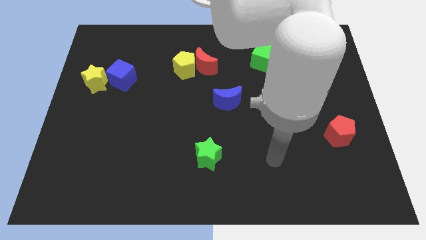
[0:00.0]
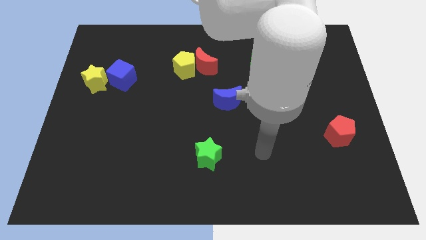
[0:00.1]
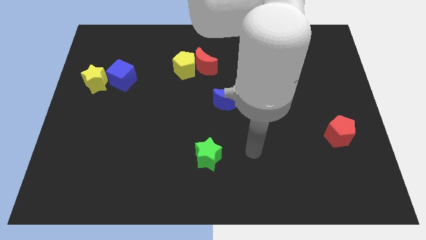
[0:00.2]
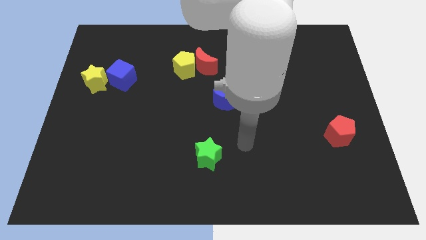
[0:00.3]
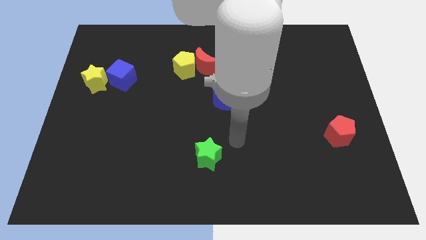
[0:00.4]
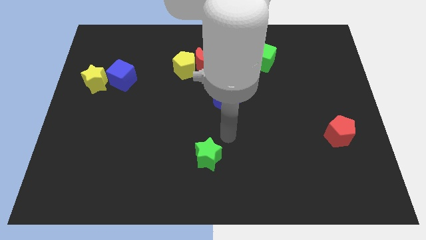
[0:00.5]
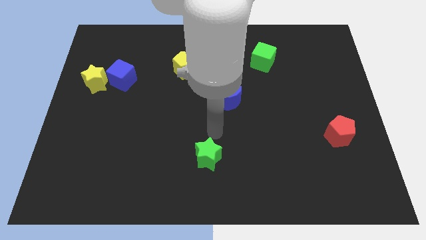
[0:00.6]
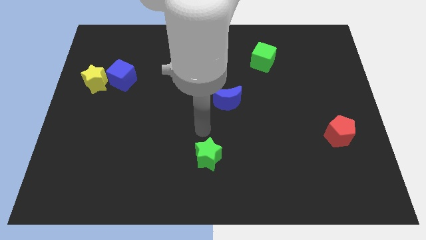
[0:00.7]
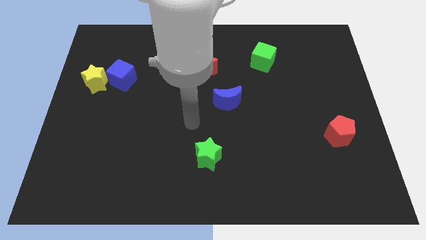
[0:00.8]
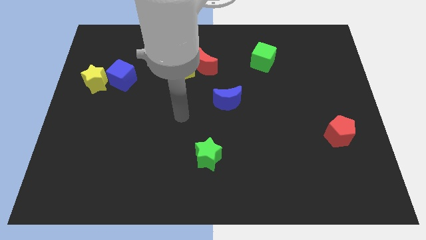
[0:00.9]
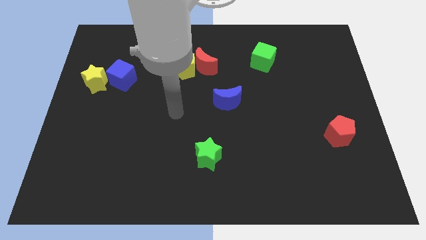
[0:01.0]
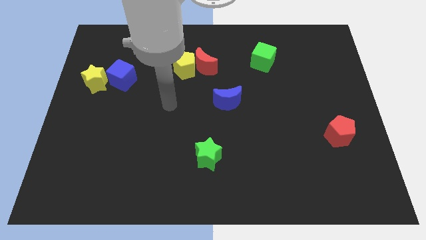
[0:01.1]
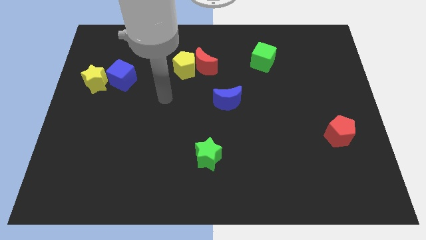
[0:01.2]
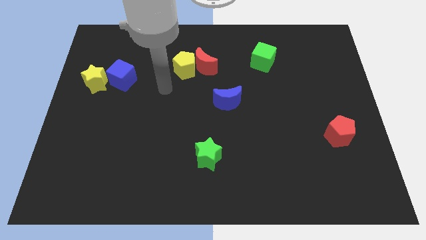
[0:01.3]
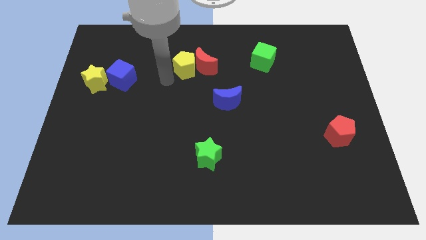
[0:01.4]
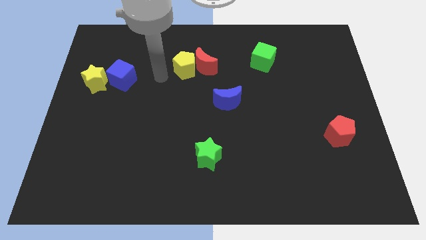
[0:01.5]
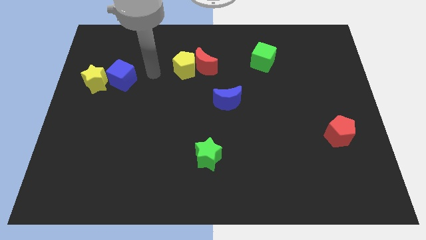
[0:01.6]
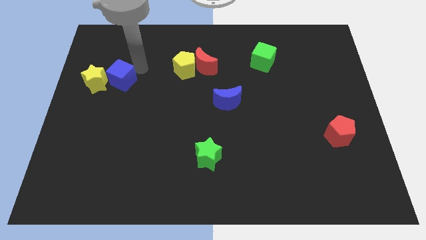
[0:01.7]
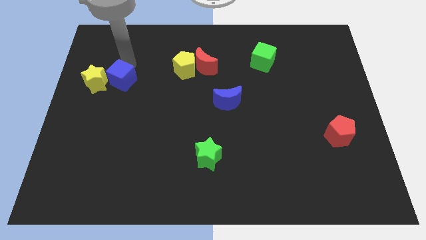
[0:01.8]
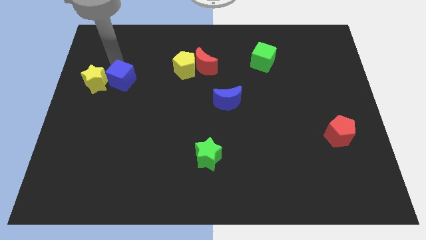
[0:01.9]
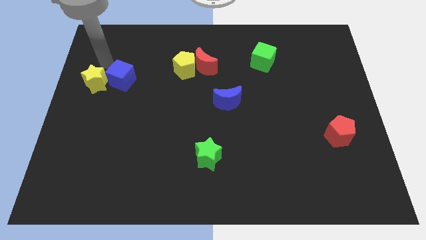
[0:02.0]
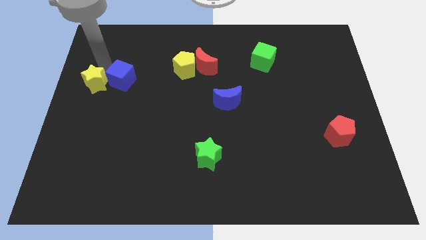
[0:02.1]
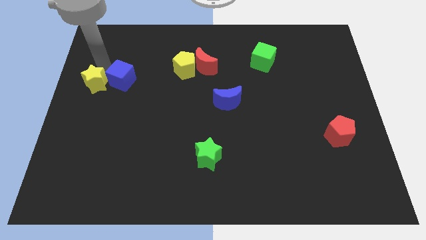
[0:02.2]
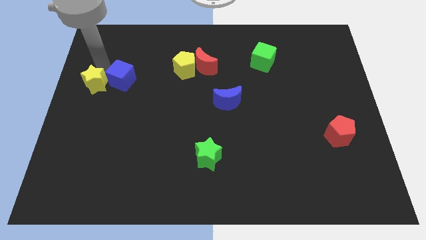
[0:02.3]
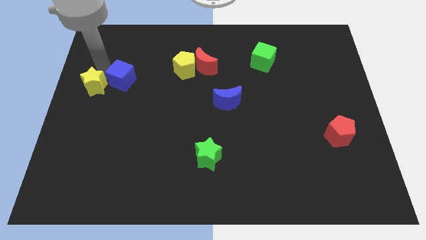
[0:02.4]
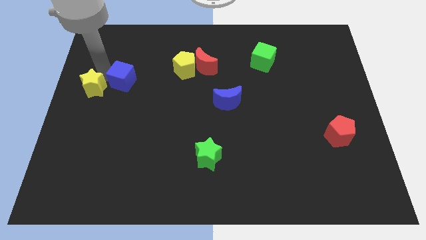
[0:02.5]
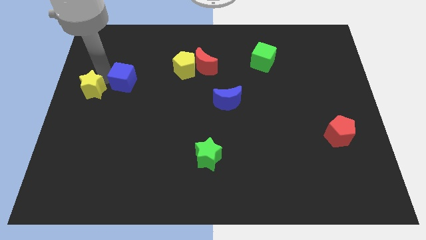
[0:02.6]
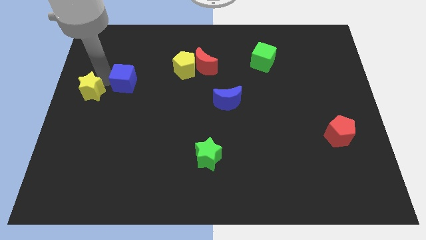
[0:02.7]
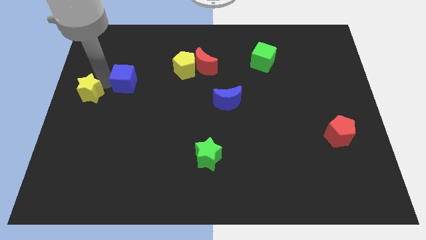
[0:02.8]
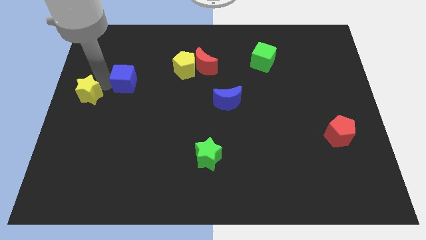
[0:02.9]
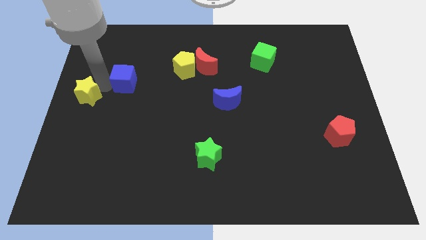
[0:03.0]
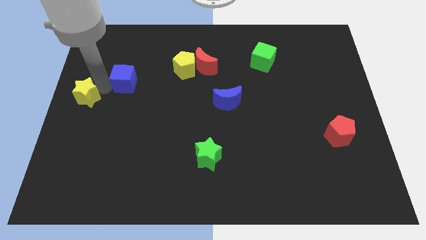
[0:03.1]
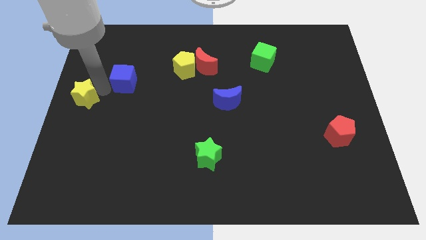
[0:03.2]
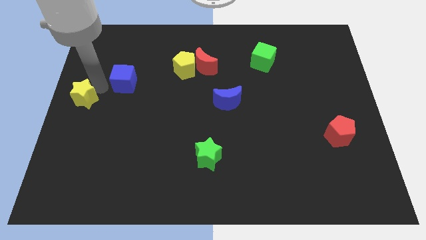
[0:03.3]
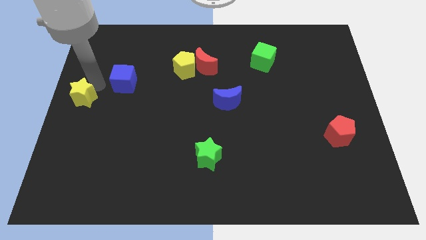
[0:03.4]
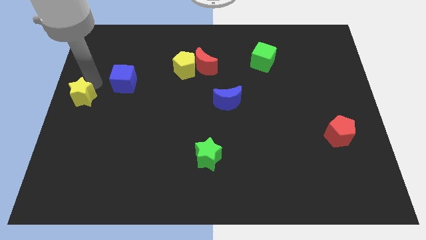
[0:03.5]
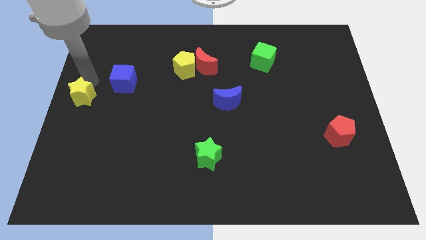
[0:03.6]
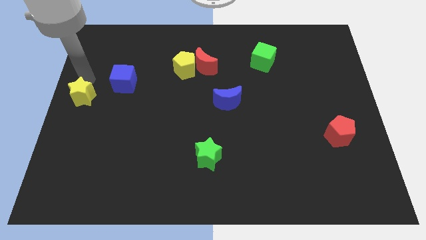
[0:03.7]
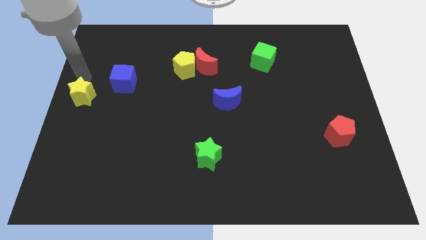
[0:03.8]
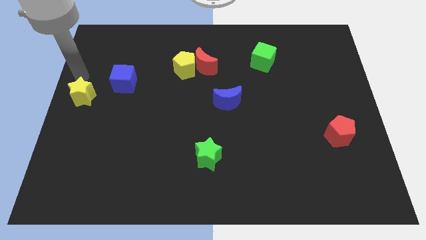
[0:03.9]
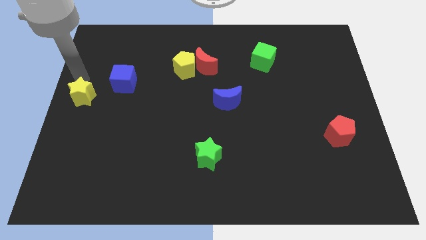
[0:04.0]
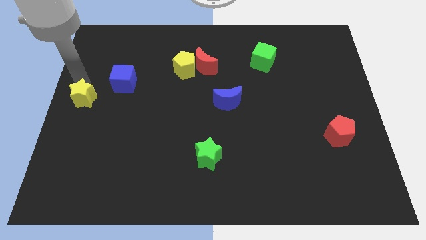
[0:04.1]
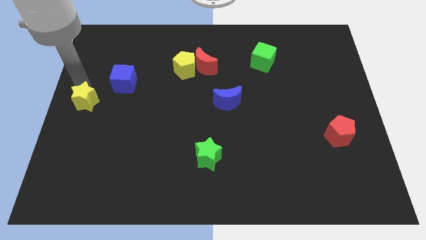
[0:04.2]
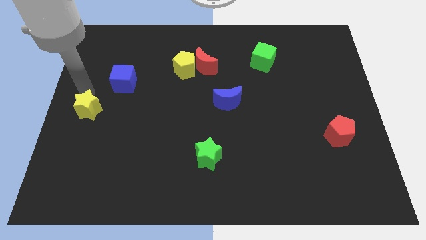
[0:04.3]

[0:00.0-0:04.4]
move the yellow star down slightly

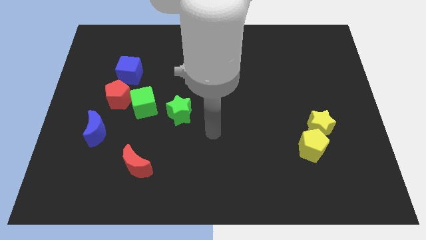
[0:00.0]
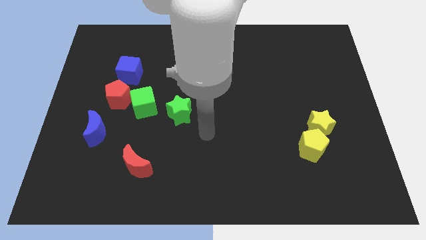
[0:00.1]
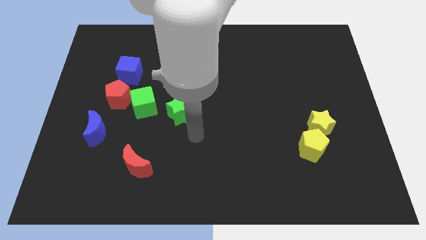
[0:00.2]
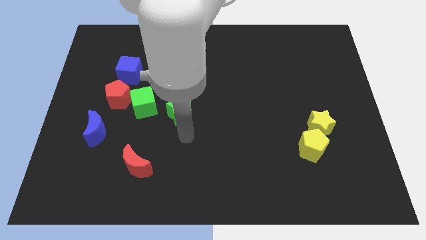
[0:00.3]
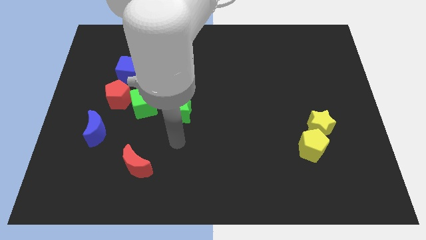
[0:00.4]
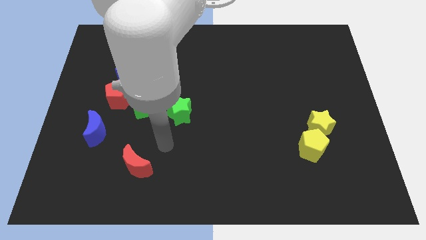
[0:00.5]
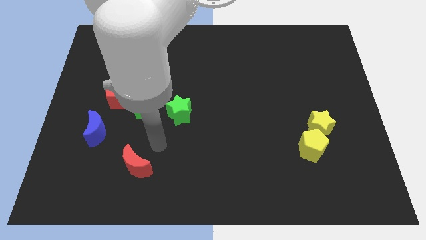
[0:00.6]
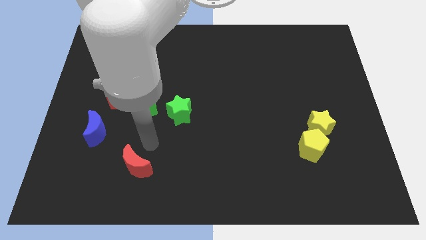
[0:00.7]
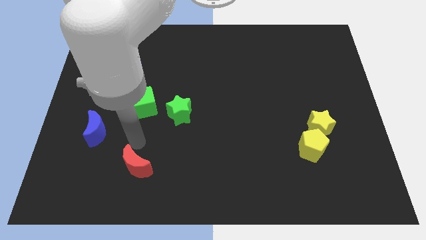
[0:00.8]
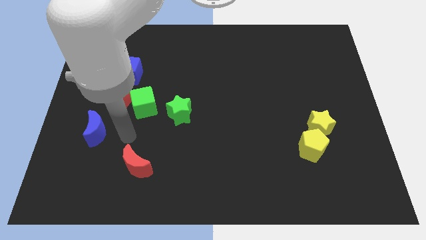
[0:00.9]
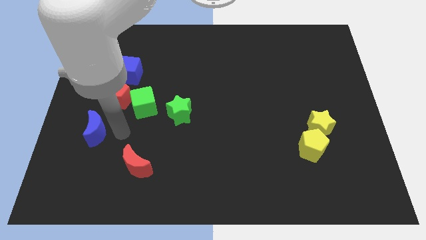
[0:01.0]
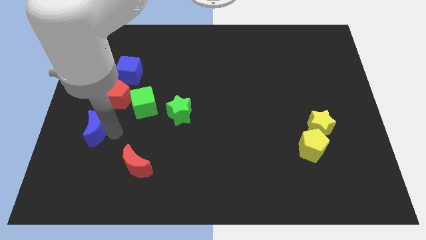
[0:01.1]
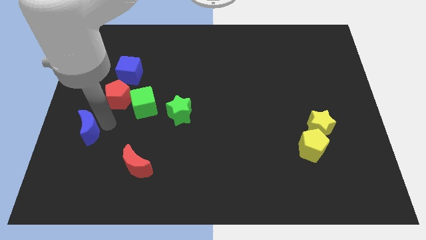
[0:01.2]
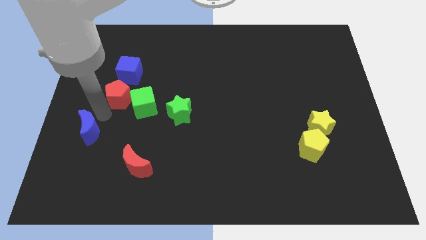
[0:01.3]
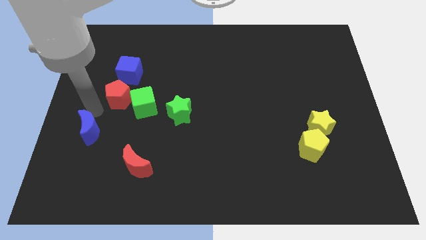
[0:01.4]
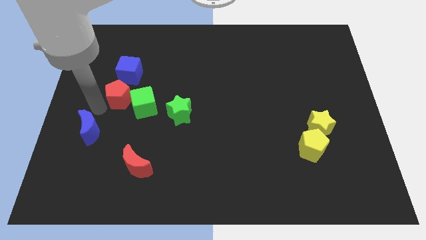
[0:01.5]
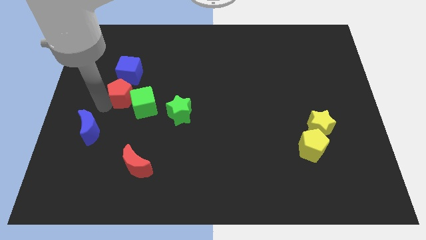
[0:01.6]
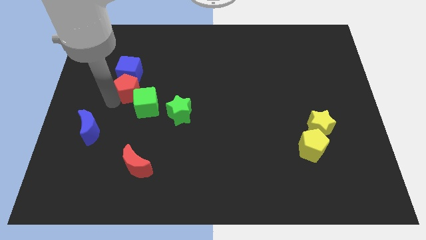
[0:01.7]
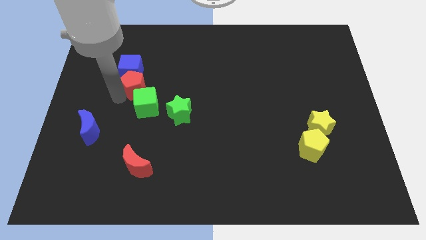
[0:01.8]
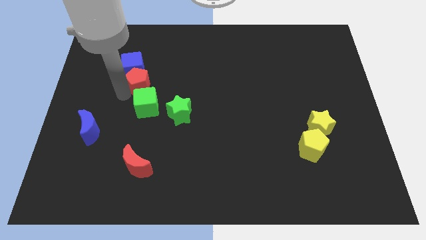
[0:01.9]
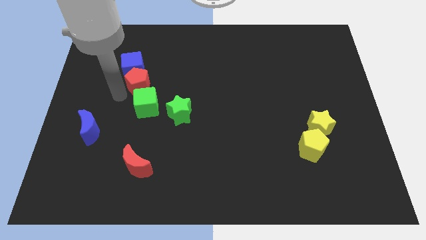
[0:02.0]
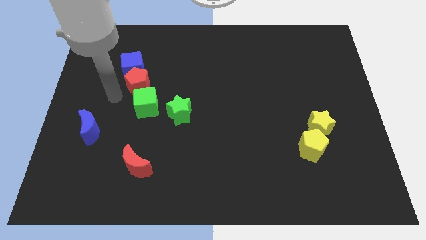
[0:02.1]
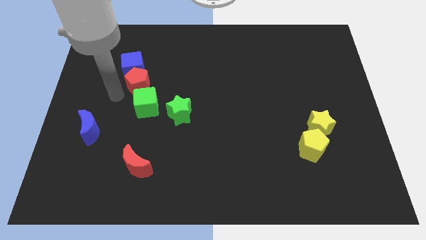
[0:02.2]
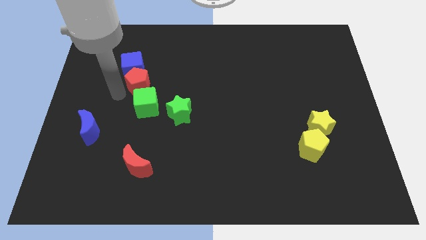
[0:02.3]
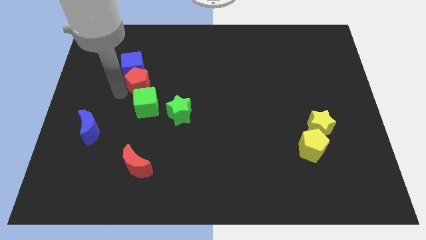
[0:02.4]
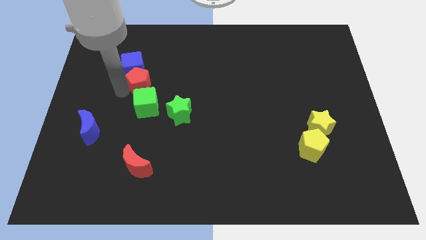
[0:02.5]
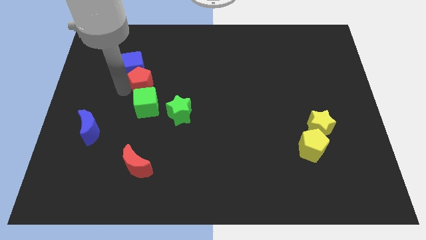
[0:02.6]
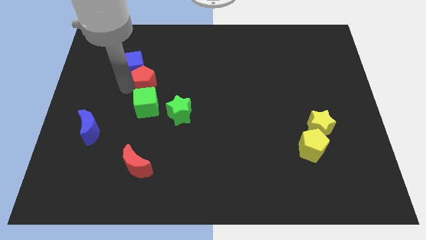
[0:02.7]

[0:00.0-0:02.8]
push the red pentagon up and to the right a little

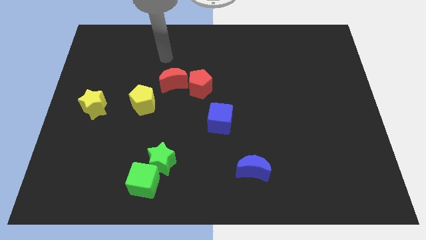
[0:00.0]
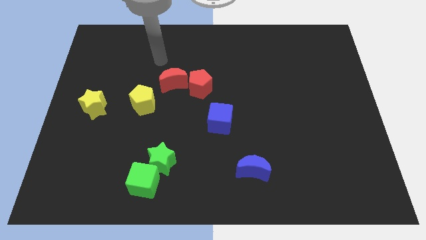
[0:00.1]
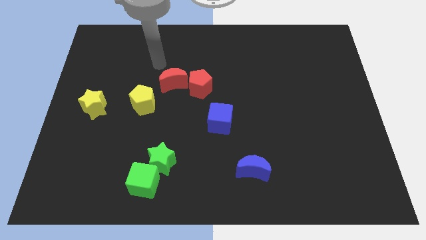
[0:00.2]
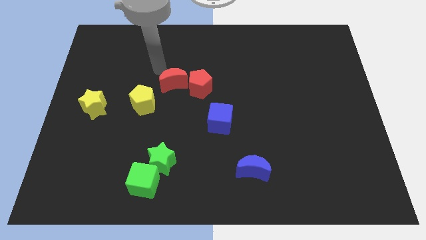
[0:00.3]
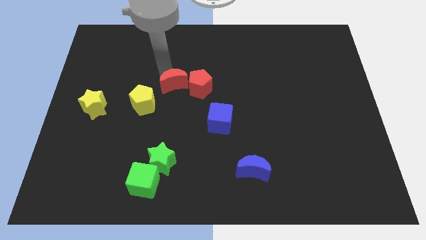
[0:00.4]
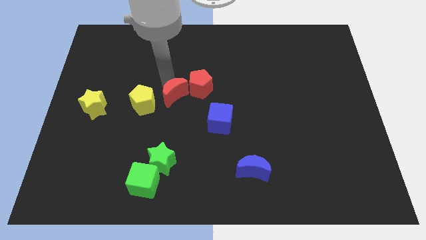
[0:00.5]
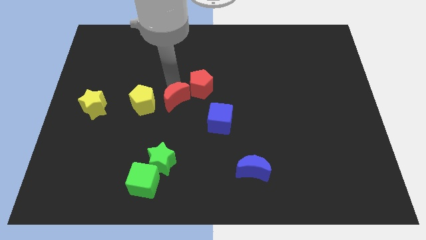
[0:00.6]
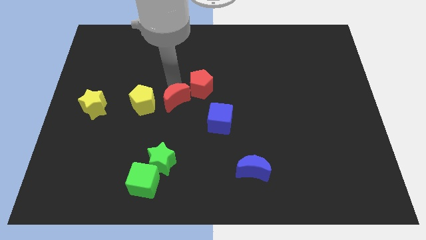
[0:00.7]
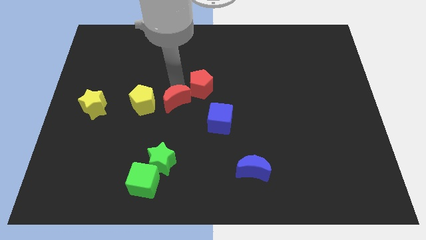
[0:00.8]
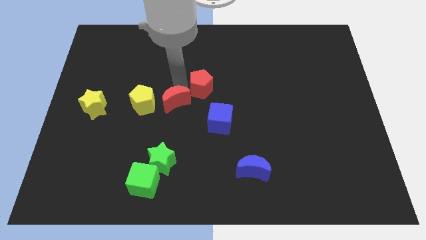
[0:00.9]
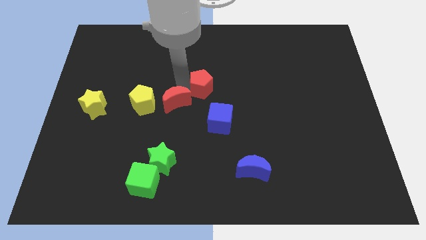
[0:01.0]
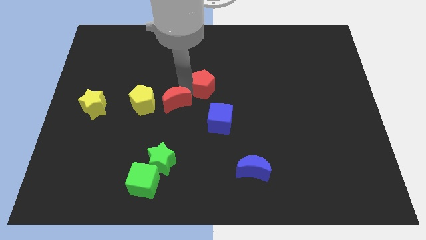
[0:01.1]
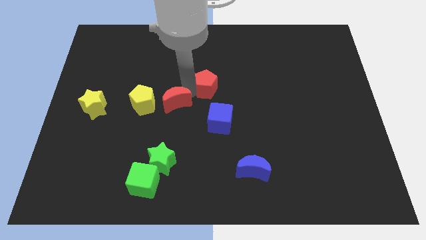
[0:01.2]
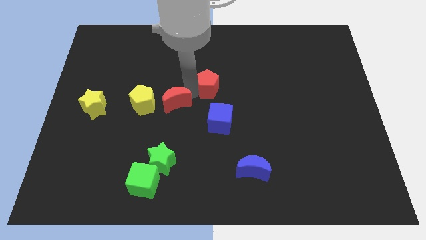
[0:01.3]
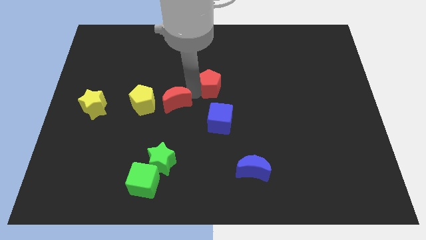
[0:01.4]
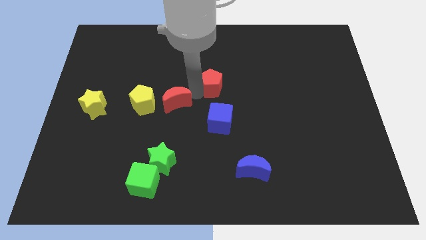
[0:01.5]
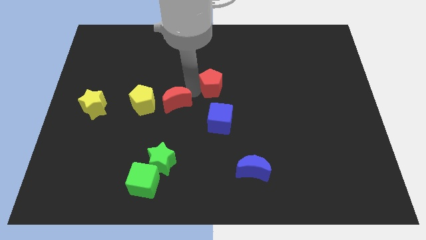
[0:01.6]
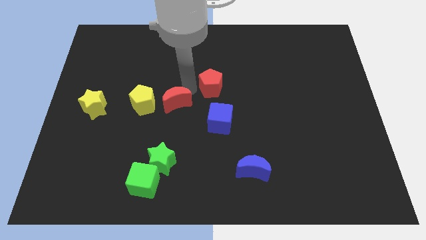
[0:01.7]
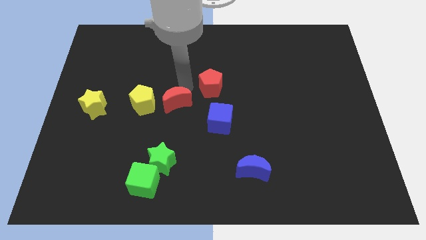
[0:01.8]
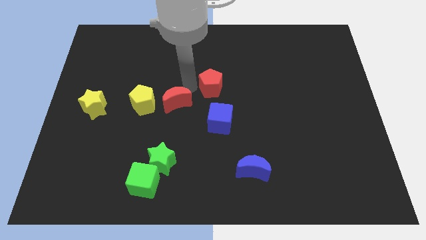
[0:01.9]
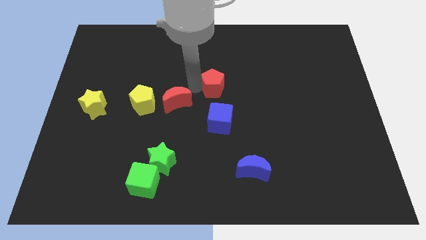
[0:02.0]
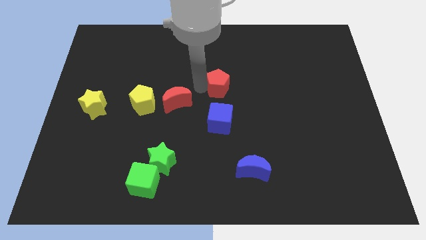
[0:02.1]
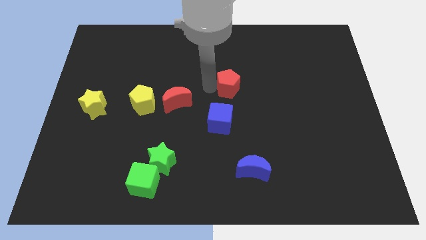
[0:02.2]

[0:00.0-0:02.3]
push the red pentagon a bit to the right
